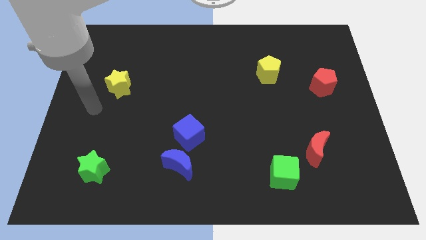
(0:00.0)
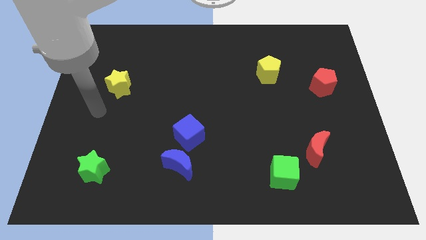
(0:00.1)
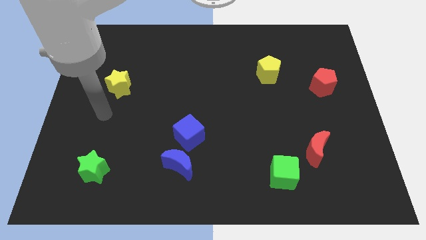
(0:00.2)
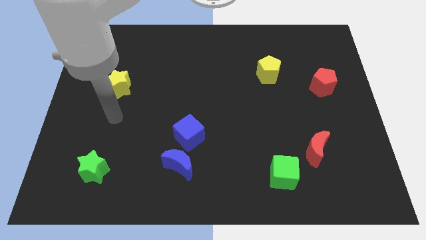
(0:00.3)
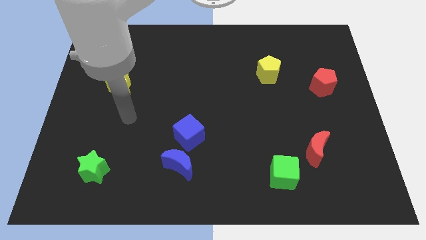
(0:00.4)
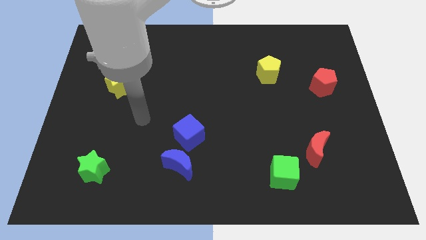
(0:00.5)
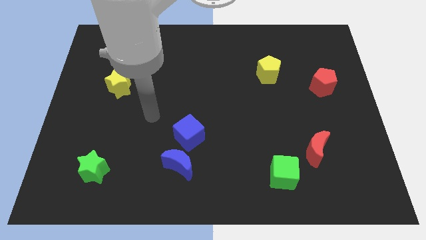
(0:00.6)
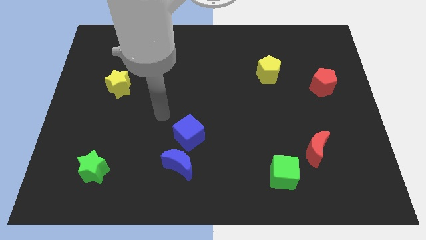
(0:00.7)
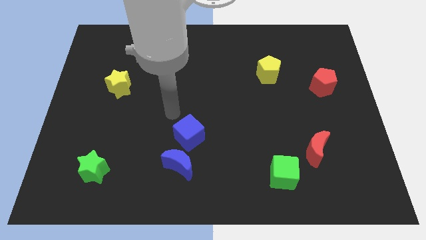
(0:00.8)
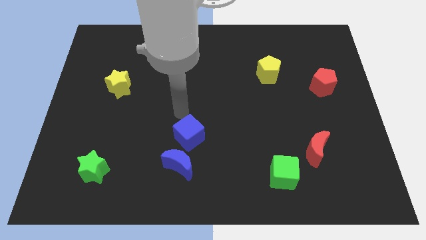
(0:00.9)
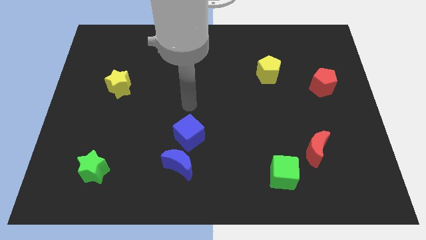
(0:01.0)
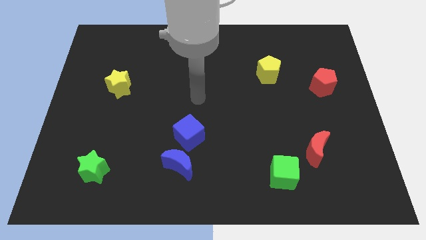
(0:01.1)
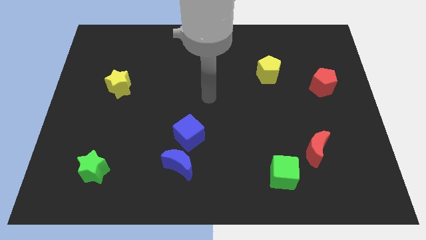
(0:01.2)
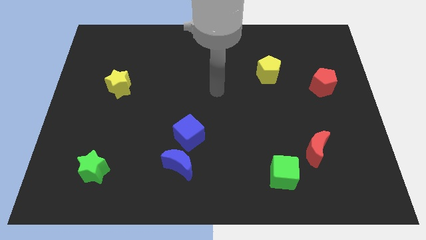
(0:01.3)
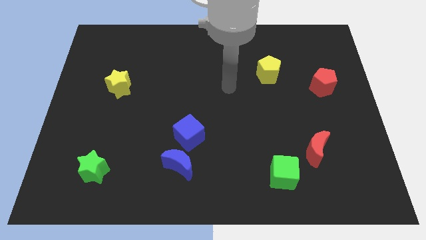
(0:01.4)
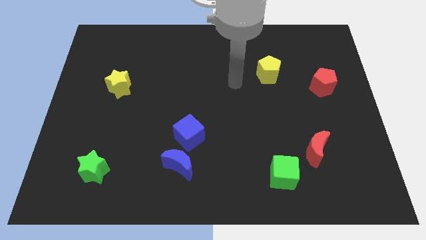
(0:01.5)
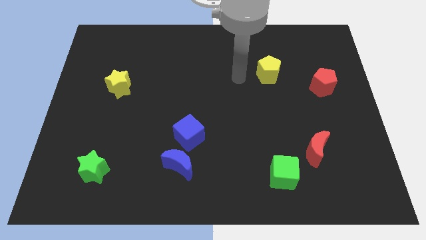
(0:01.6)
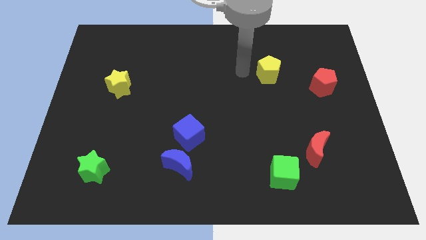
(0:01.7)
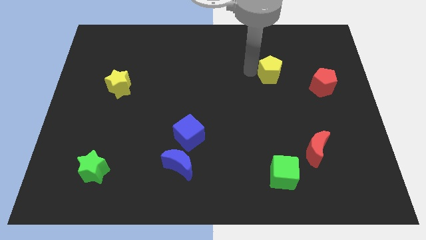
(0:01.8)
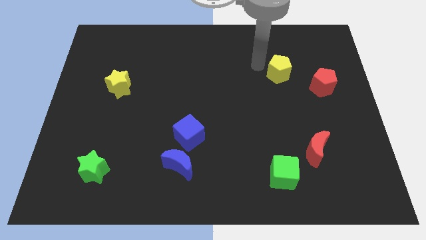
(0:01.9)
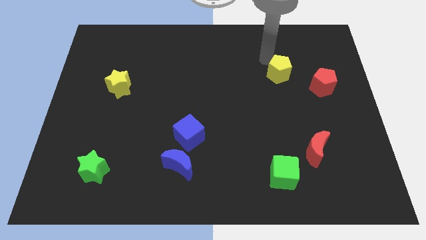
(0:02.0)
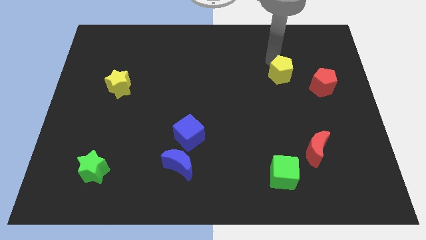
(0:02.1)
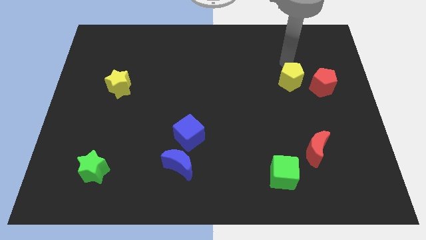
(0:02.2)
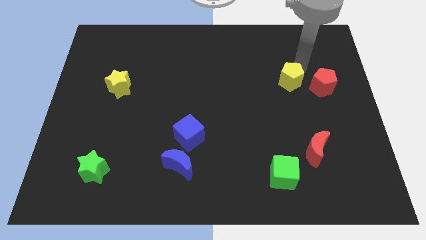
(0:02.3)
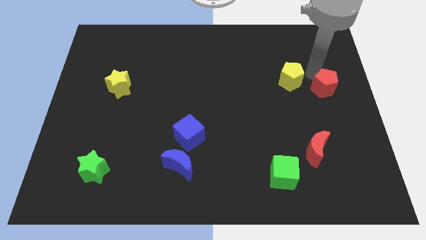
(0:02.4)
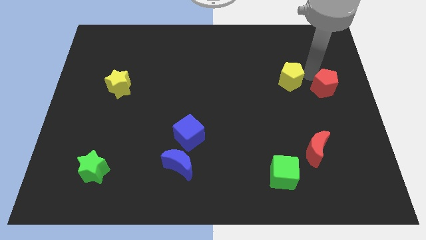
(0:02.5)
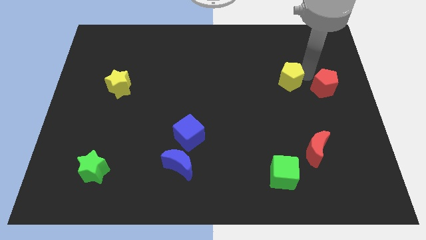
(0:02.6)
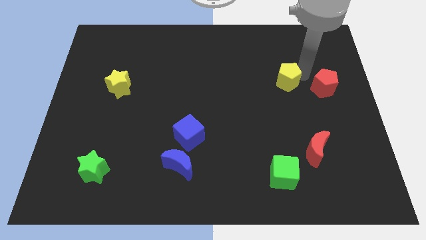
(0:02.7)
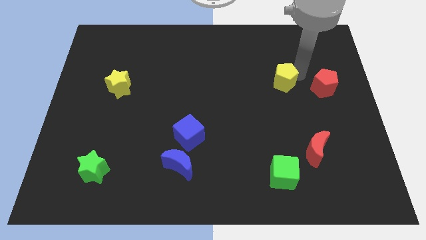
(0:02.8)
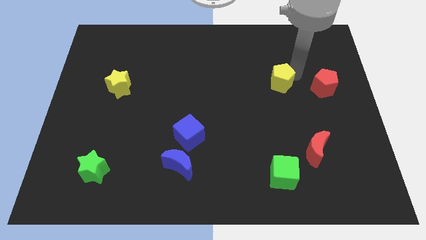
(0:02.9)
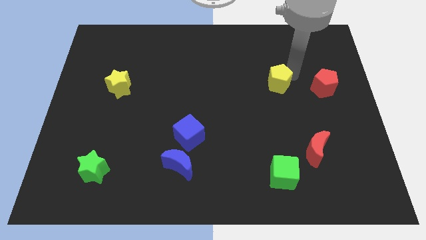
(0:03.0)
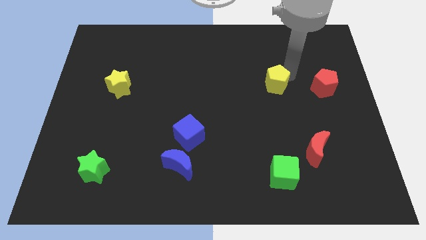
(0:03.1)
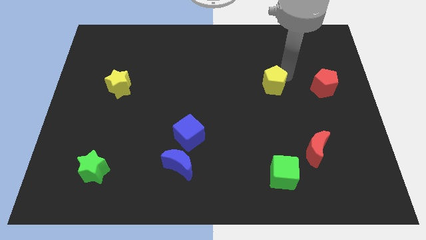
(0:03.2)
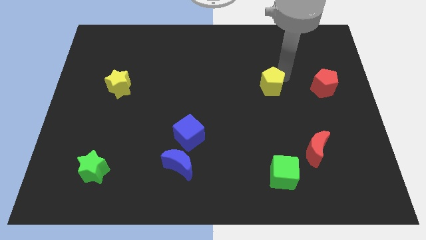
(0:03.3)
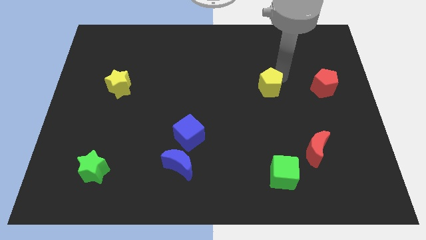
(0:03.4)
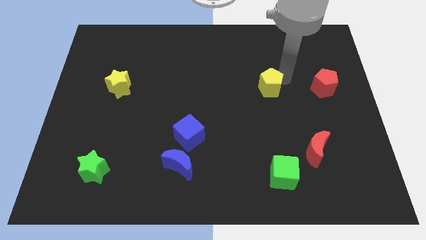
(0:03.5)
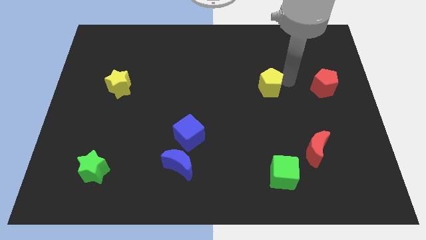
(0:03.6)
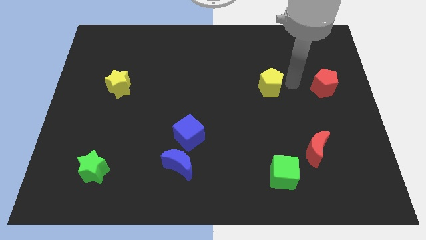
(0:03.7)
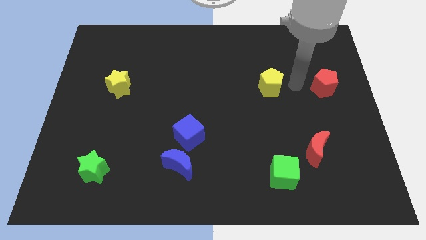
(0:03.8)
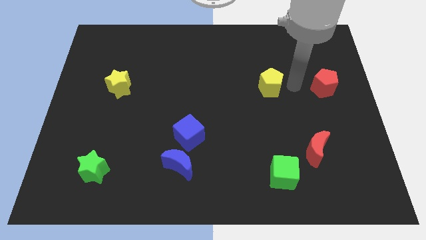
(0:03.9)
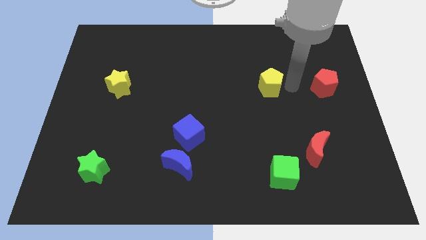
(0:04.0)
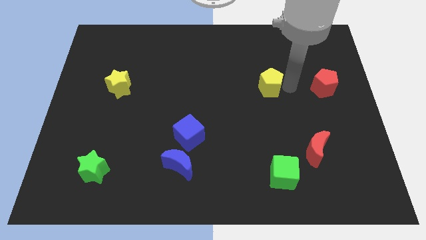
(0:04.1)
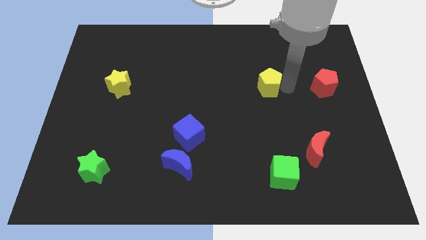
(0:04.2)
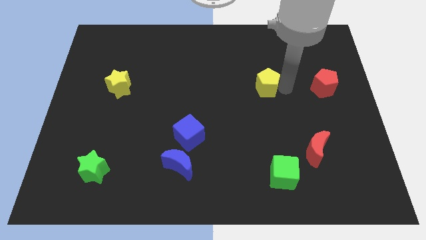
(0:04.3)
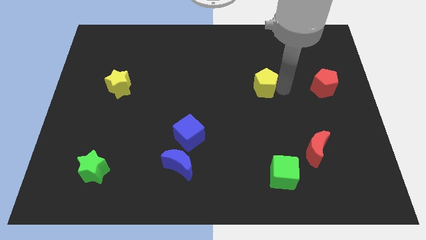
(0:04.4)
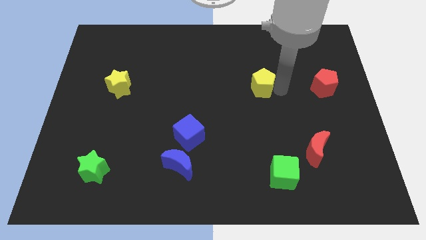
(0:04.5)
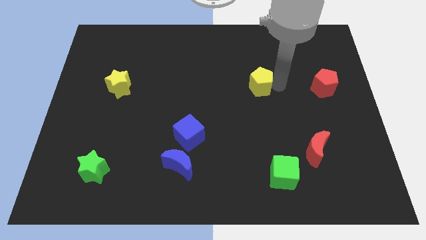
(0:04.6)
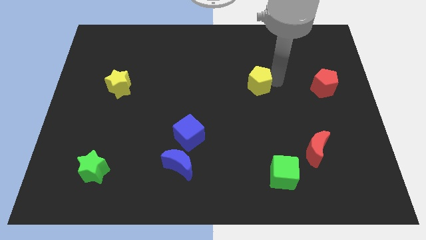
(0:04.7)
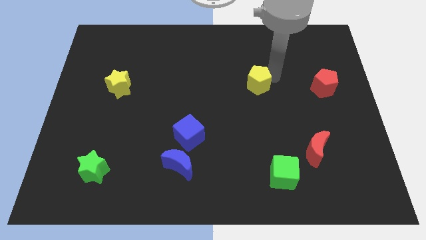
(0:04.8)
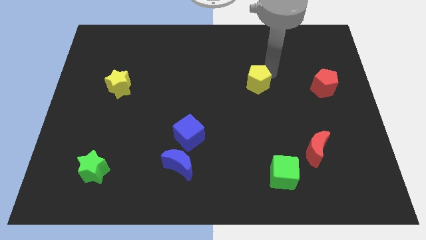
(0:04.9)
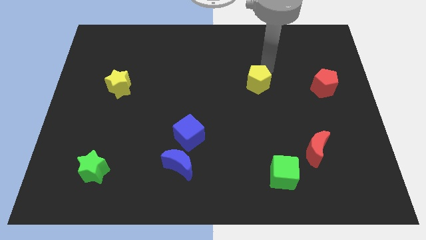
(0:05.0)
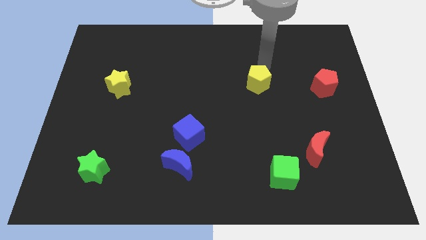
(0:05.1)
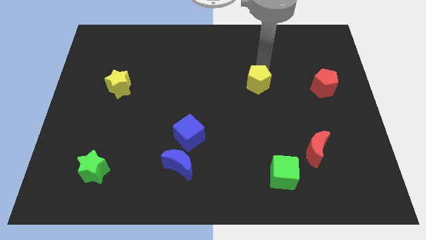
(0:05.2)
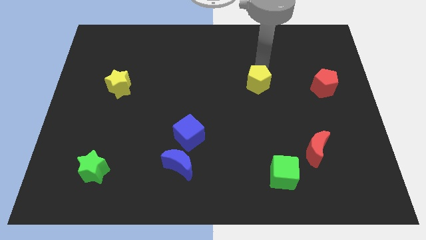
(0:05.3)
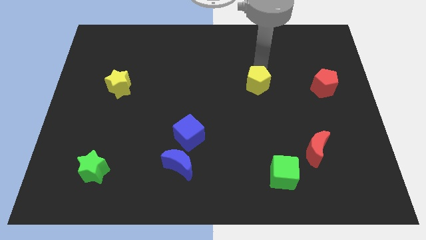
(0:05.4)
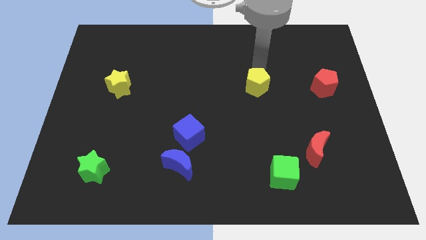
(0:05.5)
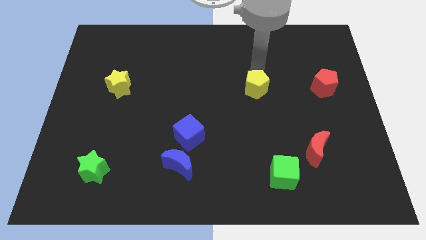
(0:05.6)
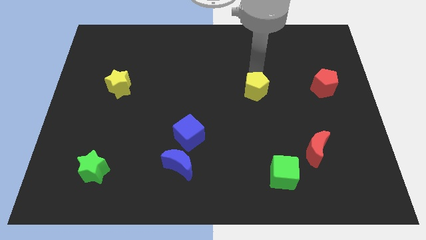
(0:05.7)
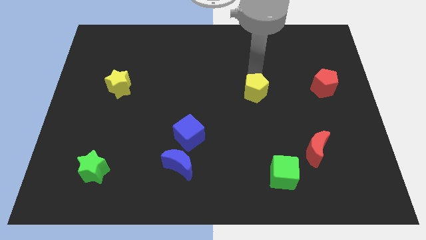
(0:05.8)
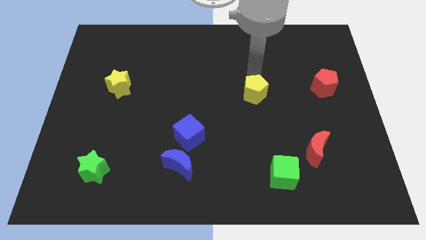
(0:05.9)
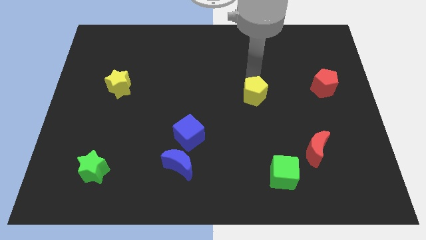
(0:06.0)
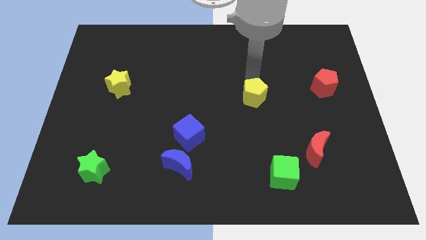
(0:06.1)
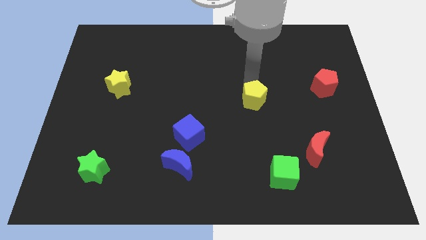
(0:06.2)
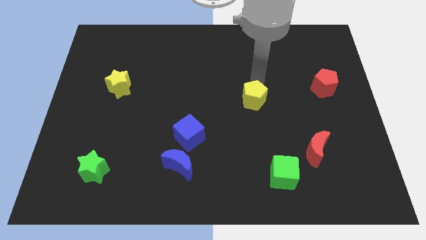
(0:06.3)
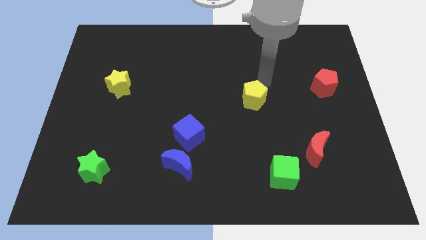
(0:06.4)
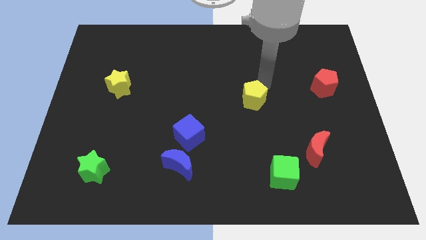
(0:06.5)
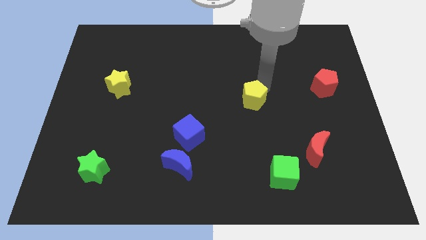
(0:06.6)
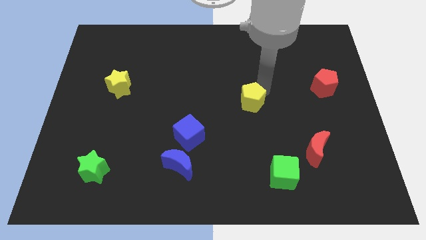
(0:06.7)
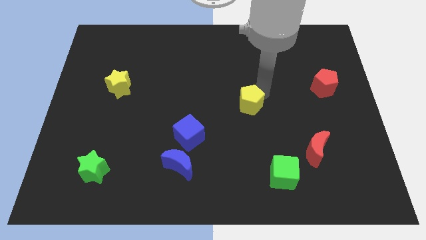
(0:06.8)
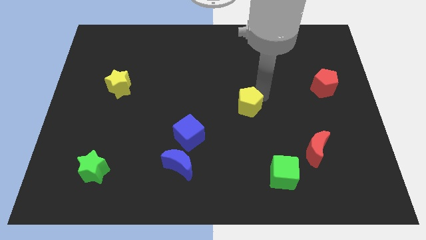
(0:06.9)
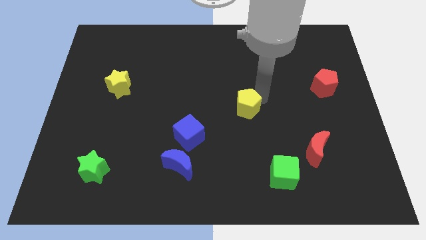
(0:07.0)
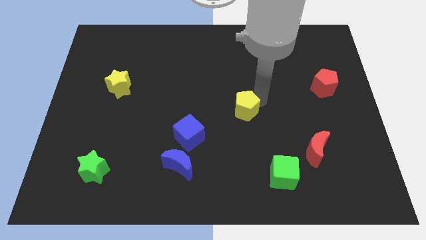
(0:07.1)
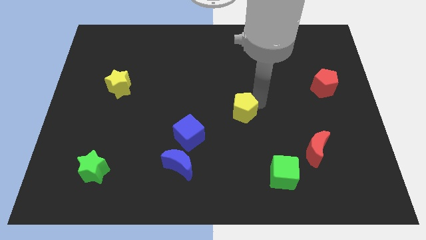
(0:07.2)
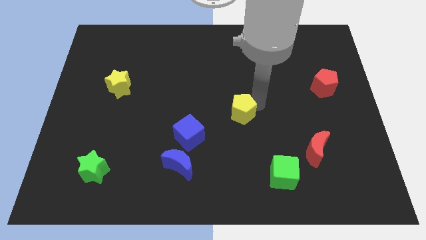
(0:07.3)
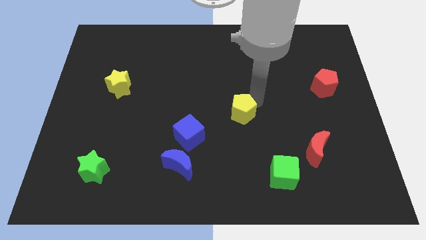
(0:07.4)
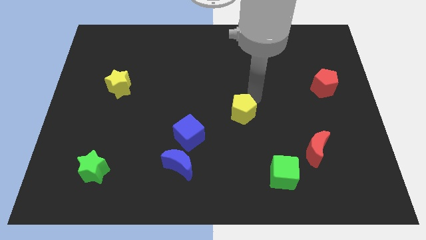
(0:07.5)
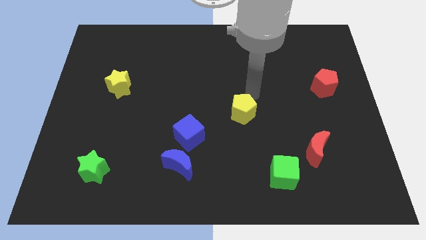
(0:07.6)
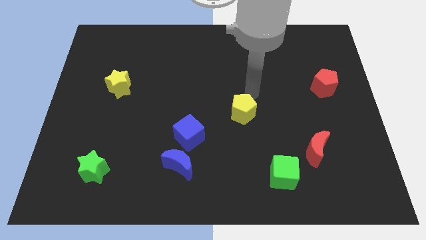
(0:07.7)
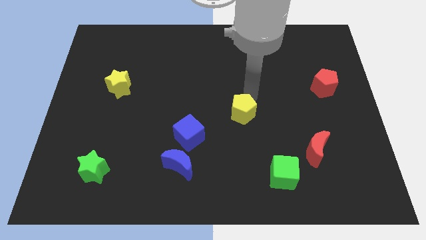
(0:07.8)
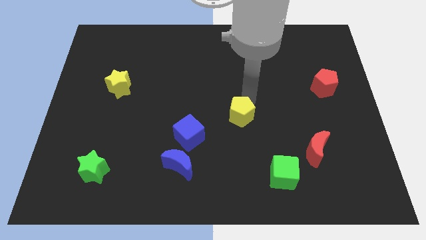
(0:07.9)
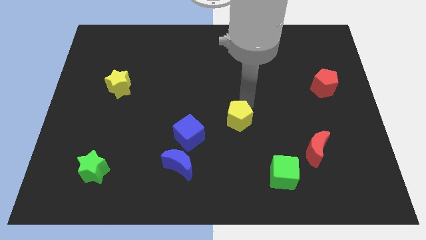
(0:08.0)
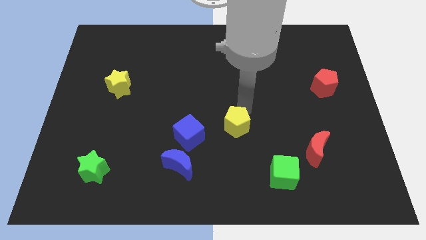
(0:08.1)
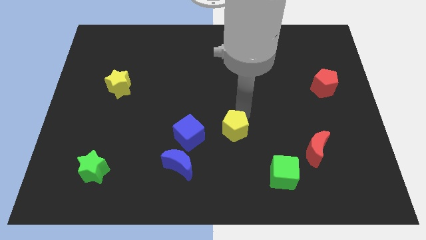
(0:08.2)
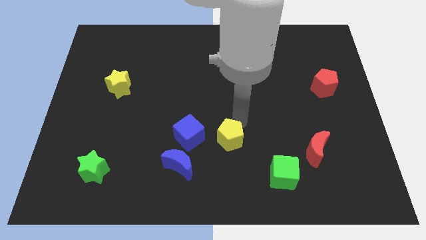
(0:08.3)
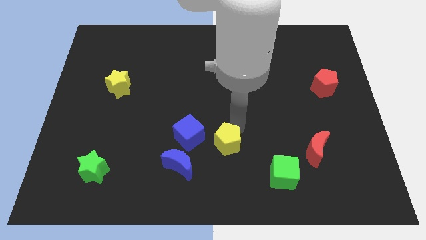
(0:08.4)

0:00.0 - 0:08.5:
move the yellow pentagon diagonally down and to the right of the blue cube
